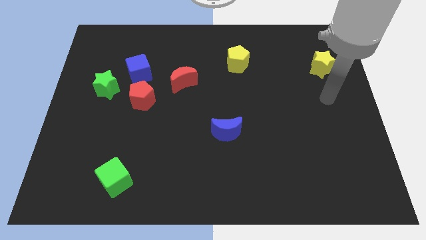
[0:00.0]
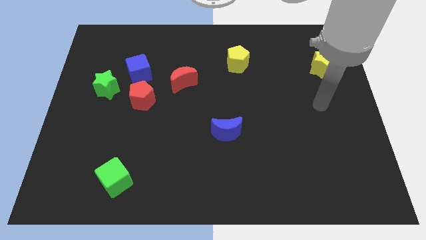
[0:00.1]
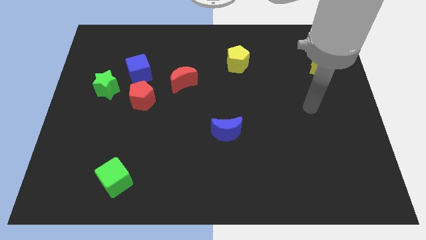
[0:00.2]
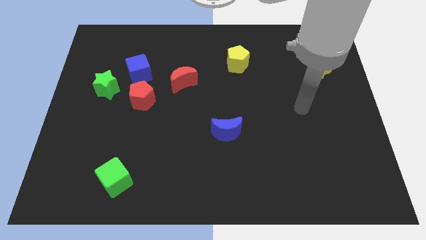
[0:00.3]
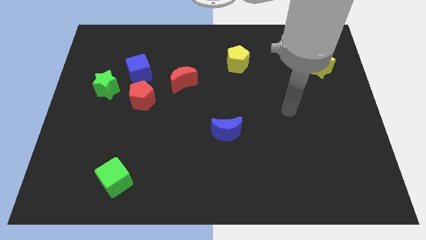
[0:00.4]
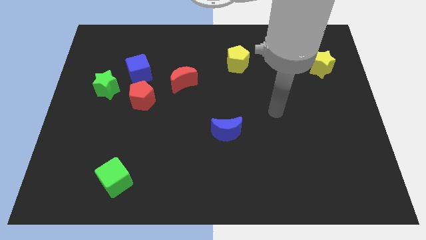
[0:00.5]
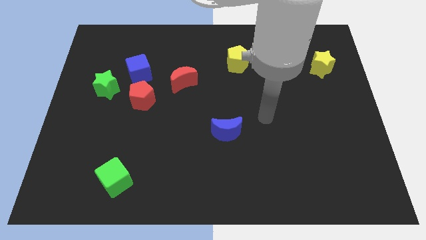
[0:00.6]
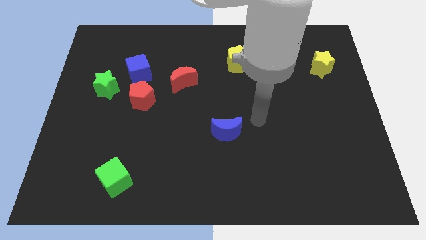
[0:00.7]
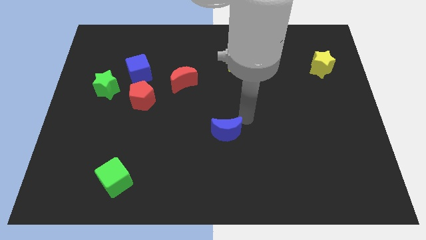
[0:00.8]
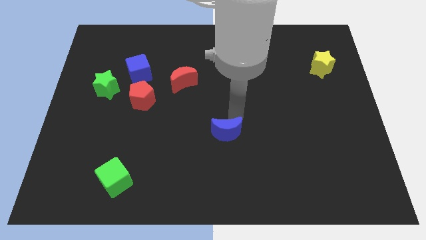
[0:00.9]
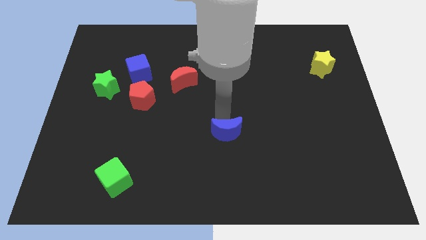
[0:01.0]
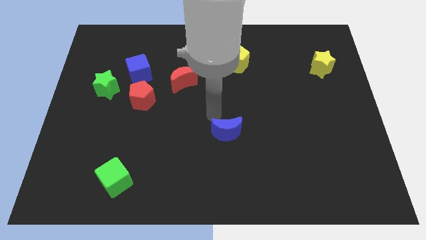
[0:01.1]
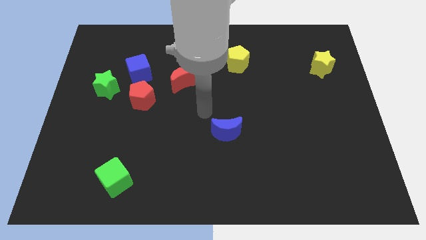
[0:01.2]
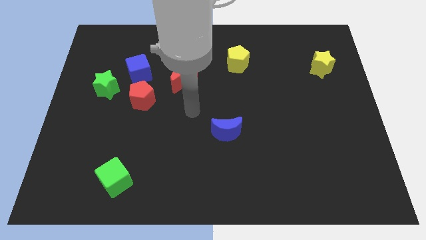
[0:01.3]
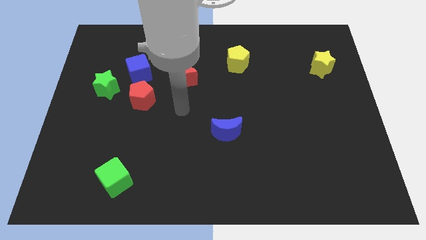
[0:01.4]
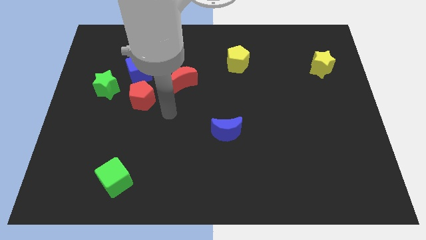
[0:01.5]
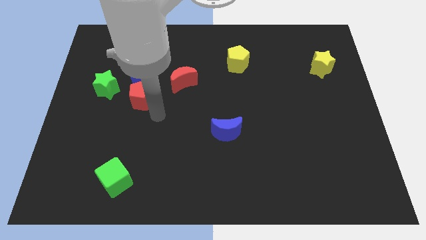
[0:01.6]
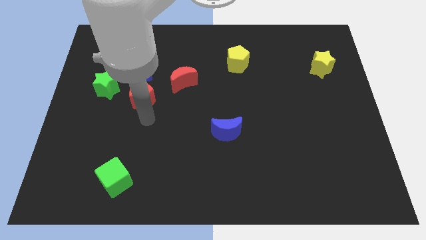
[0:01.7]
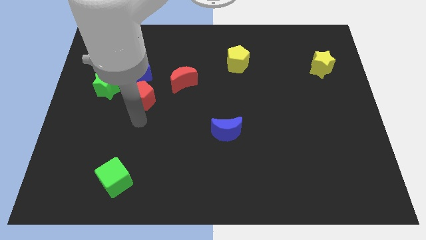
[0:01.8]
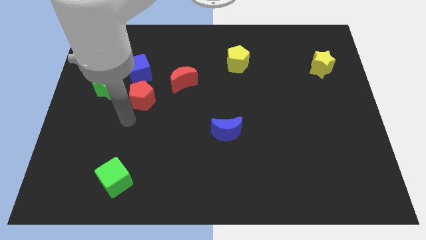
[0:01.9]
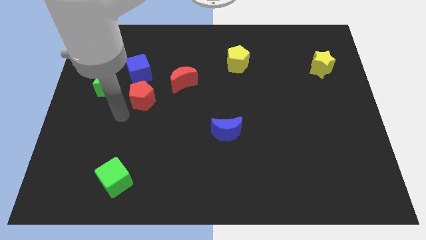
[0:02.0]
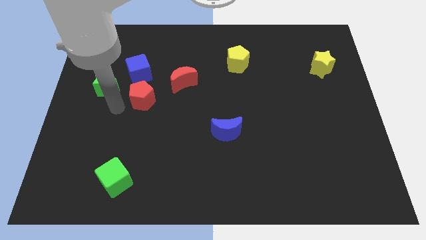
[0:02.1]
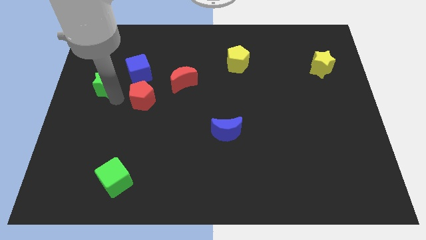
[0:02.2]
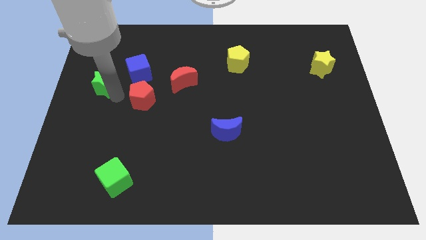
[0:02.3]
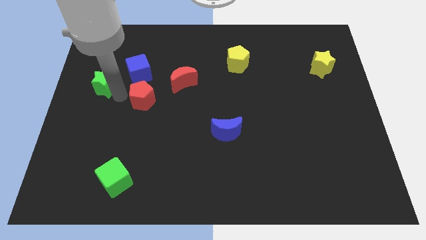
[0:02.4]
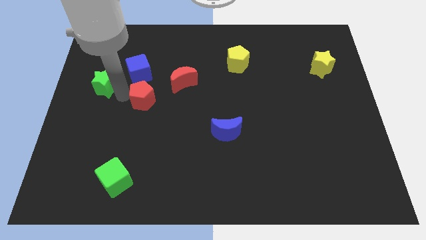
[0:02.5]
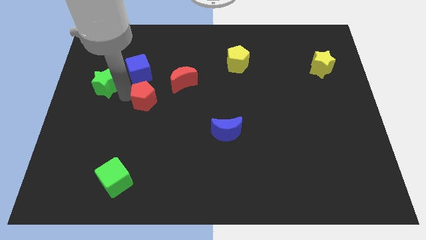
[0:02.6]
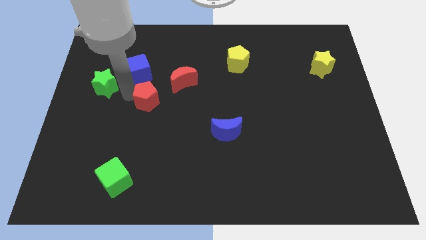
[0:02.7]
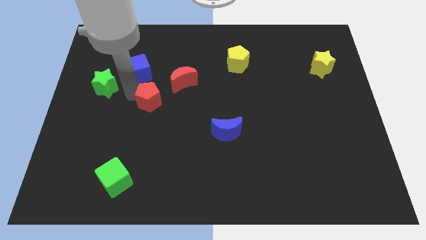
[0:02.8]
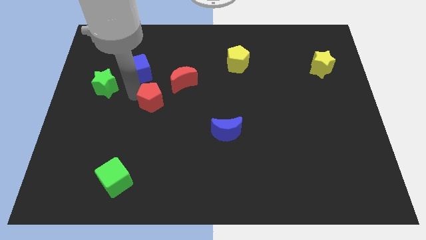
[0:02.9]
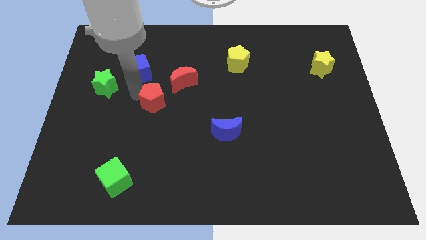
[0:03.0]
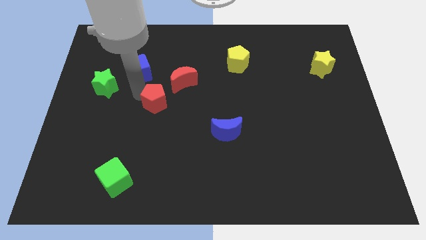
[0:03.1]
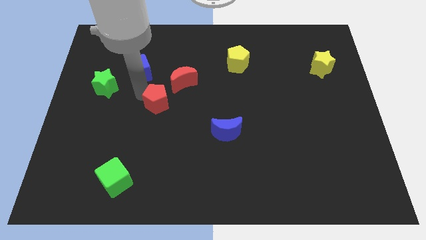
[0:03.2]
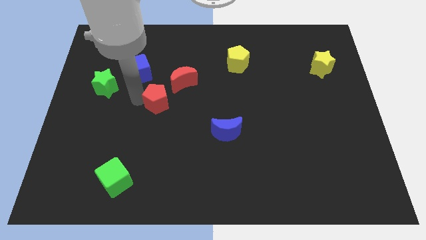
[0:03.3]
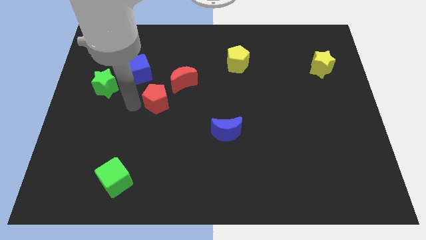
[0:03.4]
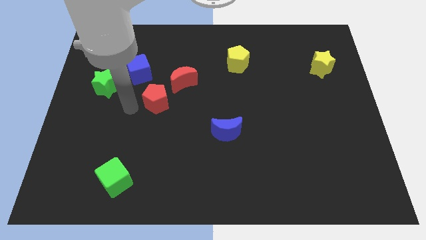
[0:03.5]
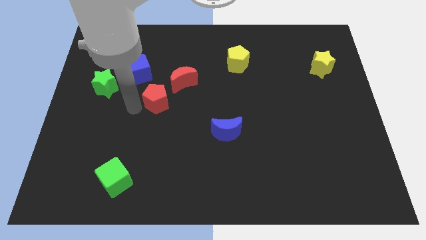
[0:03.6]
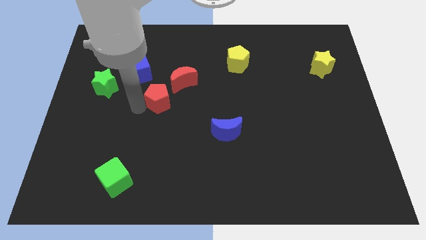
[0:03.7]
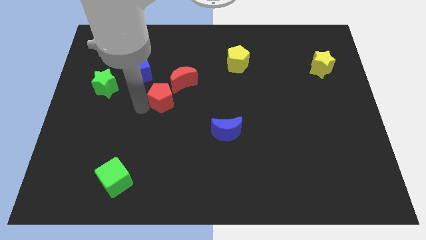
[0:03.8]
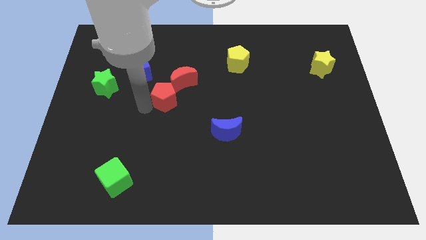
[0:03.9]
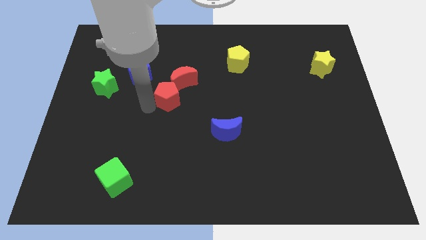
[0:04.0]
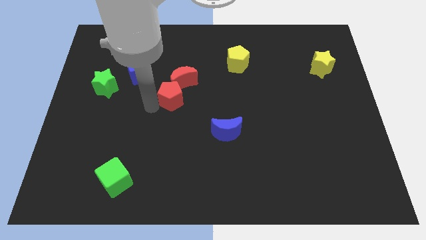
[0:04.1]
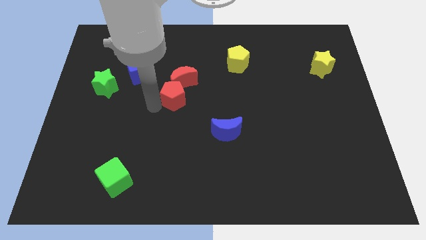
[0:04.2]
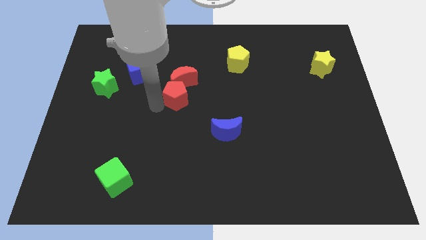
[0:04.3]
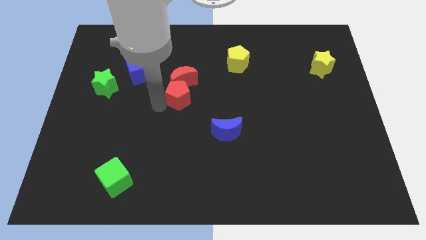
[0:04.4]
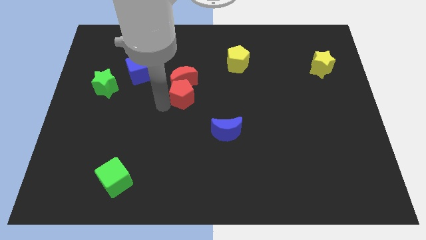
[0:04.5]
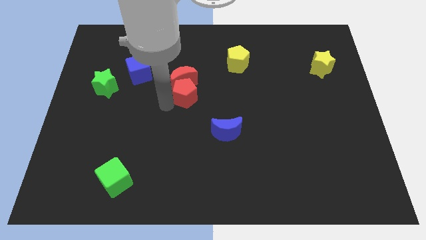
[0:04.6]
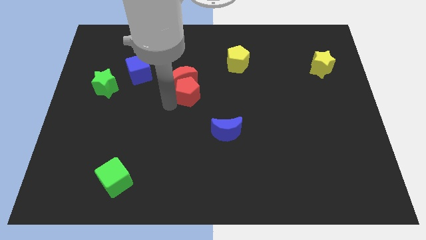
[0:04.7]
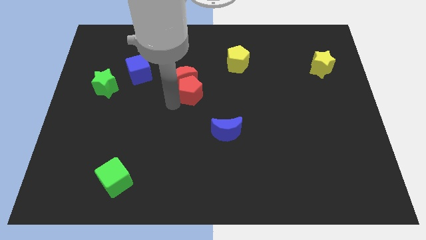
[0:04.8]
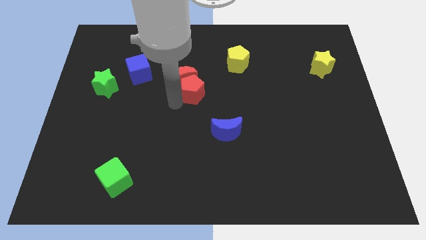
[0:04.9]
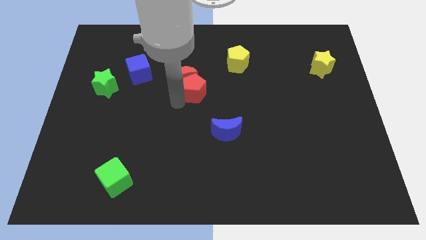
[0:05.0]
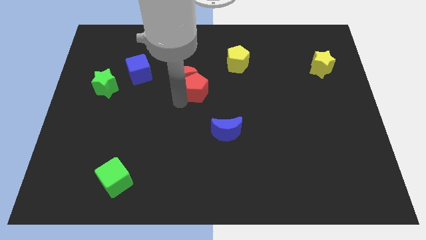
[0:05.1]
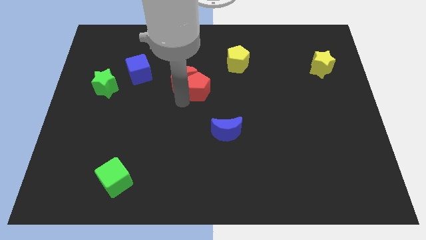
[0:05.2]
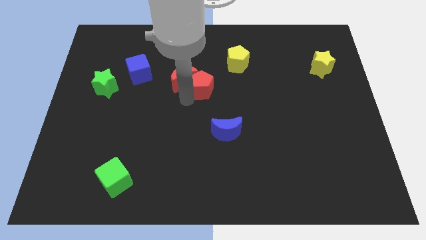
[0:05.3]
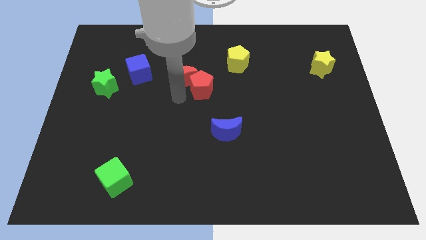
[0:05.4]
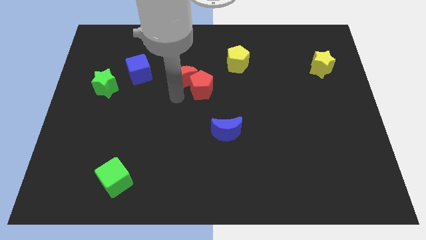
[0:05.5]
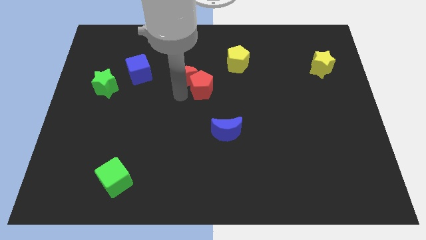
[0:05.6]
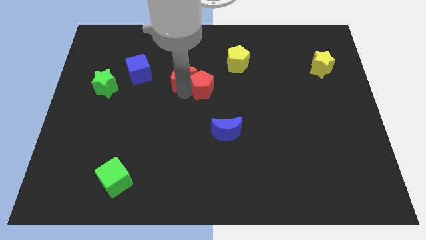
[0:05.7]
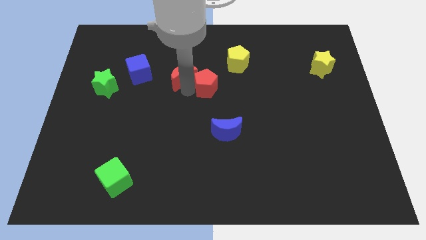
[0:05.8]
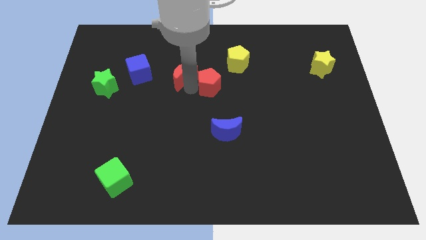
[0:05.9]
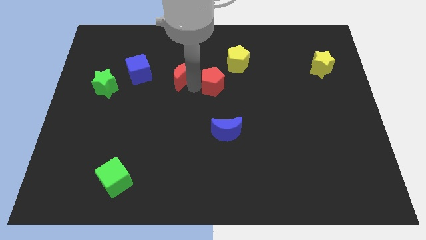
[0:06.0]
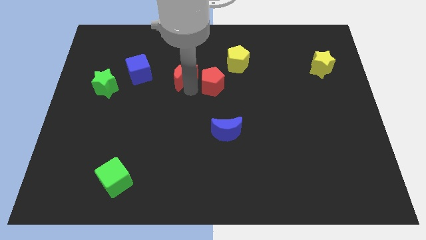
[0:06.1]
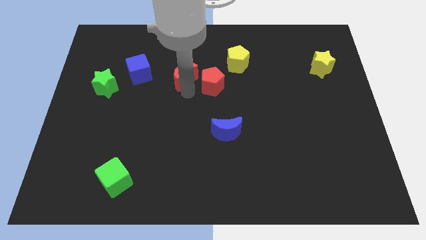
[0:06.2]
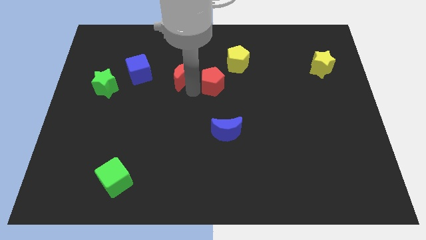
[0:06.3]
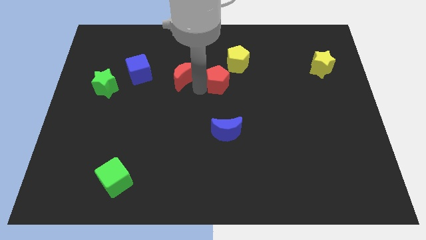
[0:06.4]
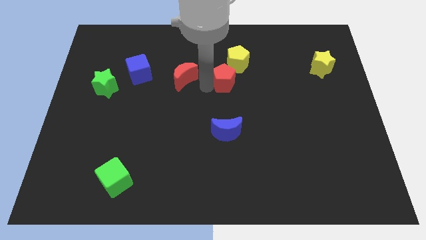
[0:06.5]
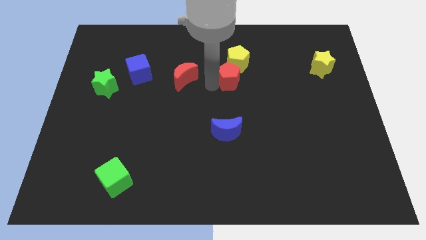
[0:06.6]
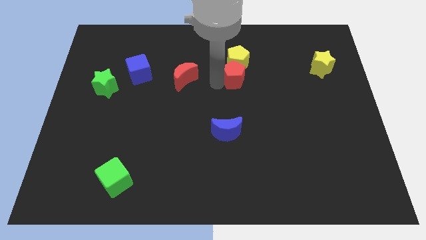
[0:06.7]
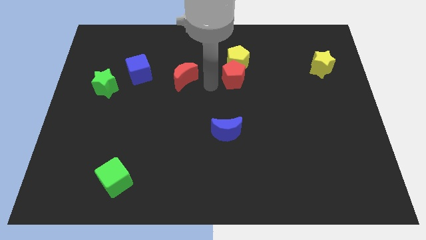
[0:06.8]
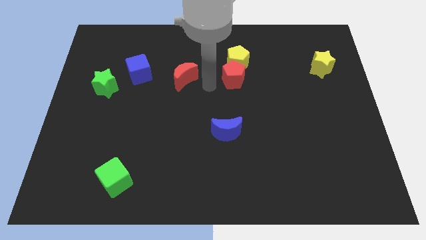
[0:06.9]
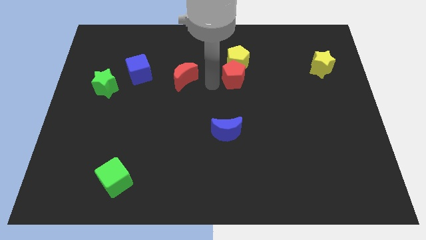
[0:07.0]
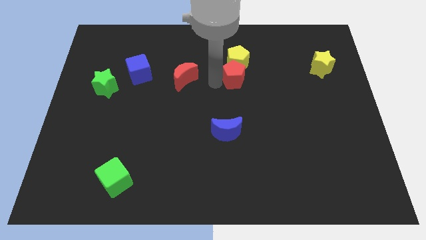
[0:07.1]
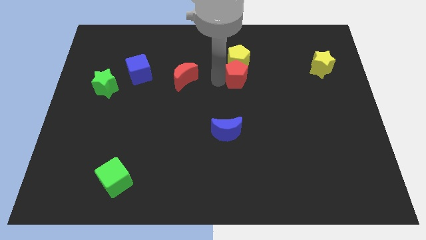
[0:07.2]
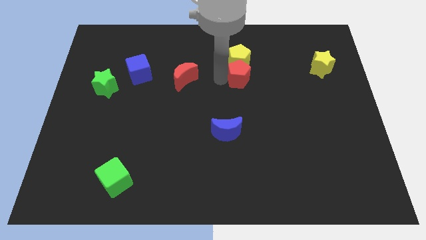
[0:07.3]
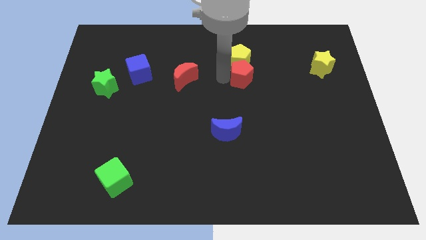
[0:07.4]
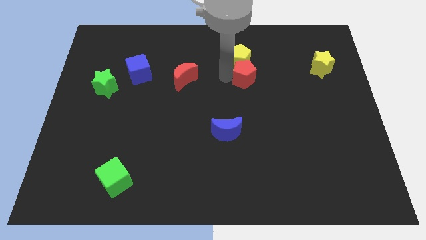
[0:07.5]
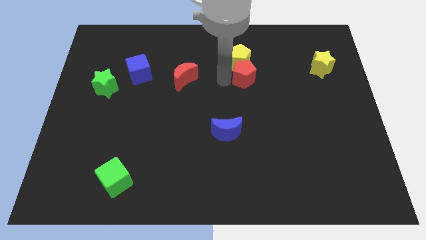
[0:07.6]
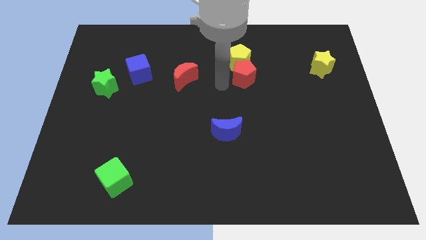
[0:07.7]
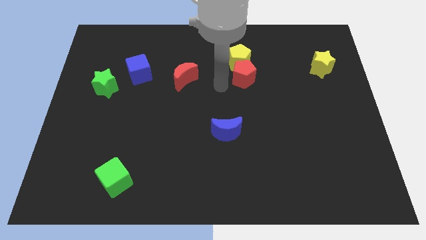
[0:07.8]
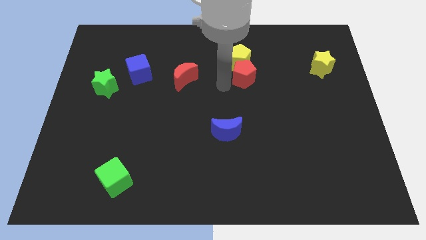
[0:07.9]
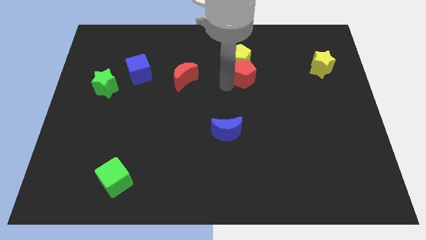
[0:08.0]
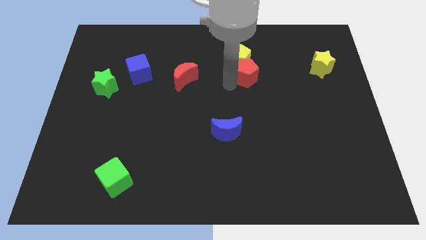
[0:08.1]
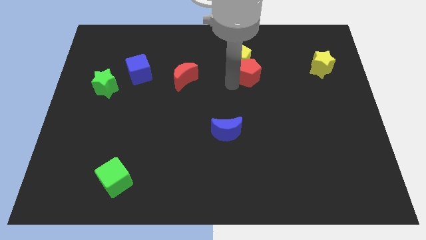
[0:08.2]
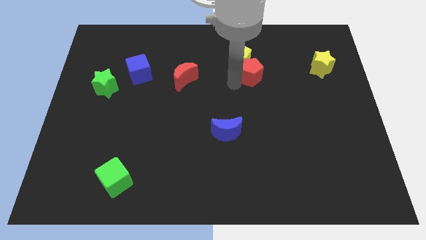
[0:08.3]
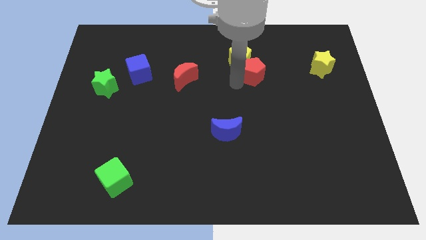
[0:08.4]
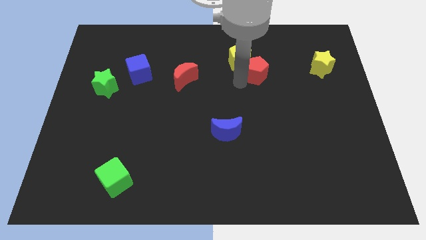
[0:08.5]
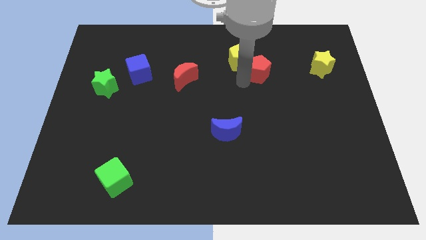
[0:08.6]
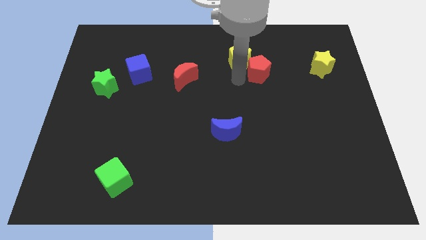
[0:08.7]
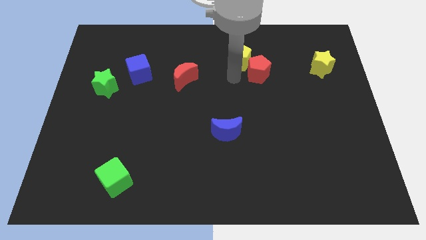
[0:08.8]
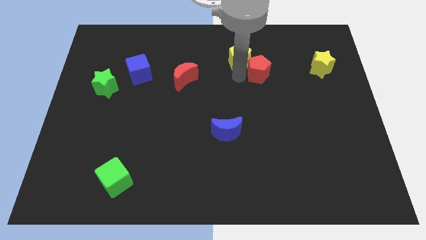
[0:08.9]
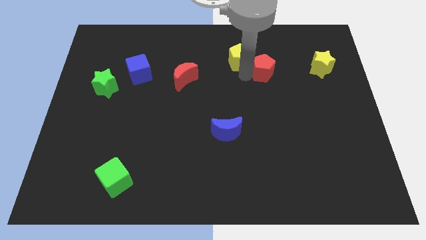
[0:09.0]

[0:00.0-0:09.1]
put the red pentagon to the left of the yellow star
